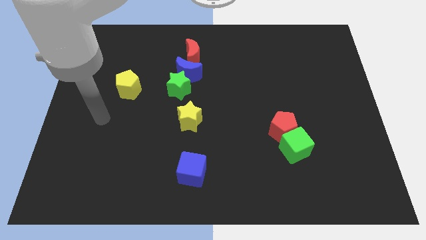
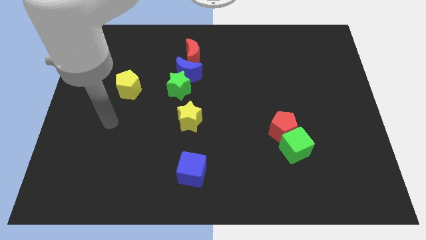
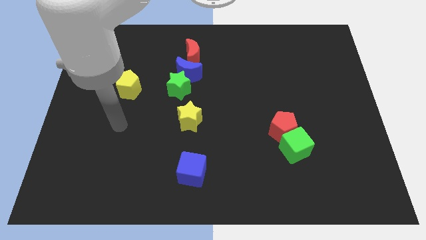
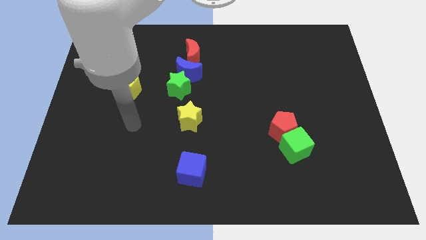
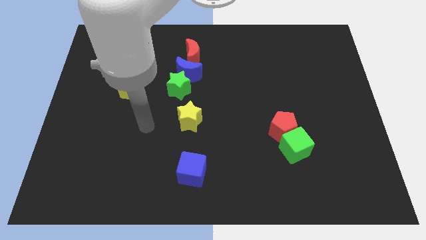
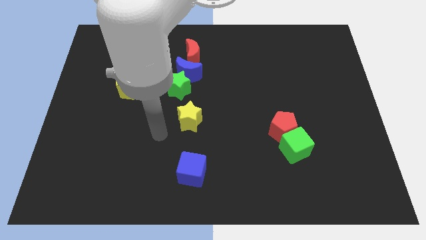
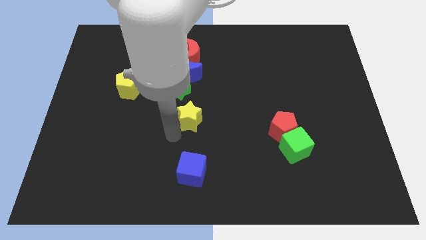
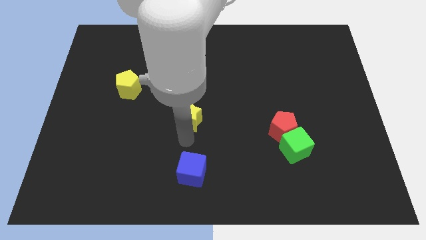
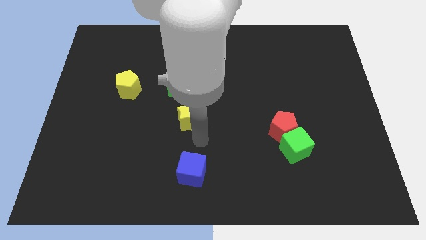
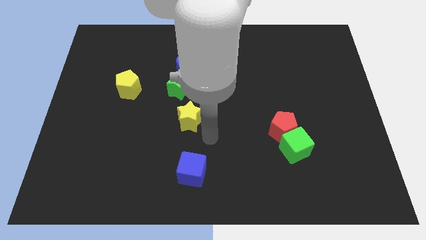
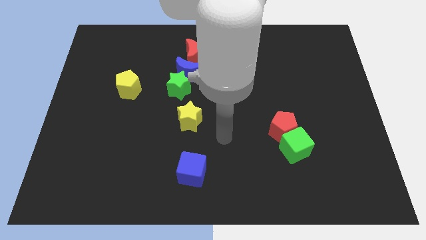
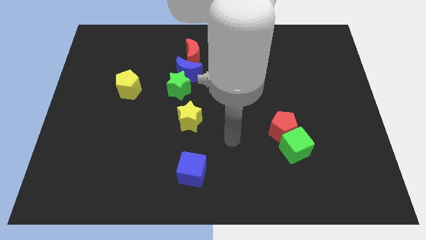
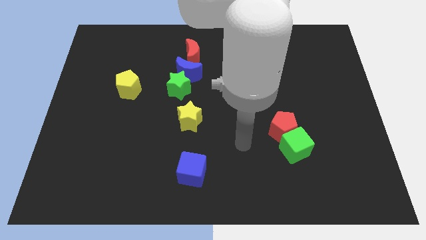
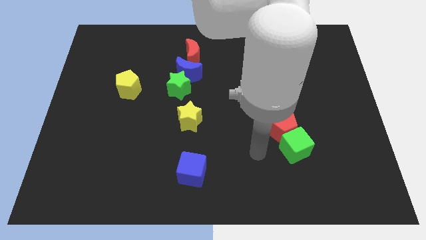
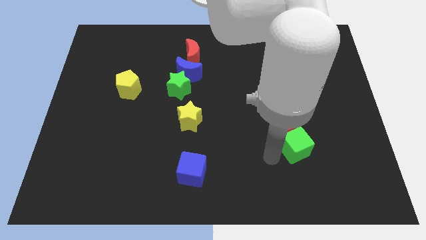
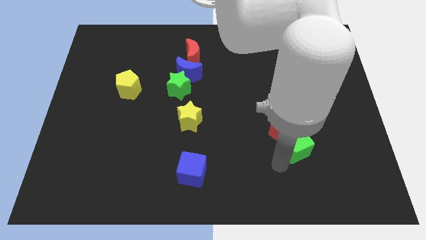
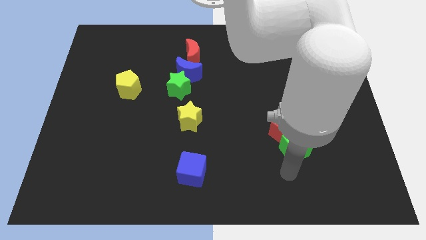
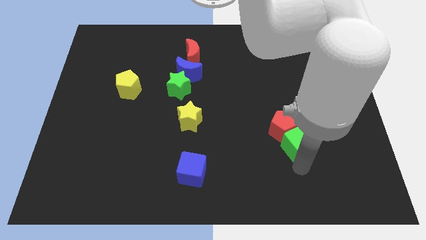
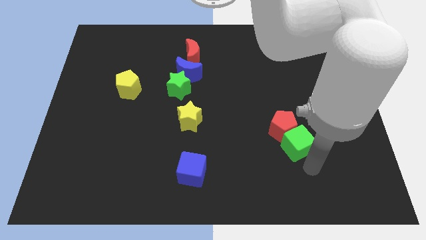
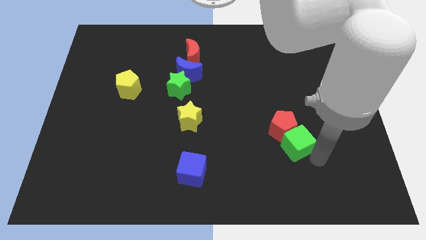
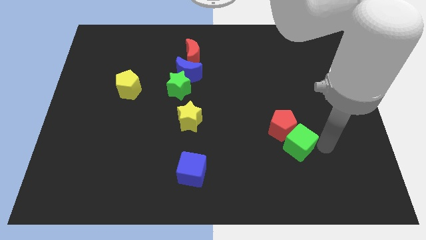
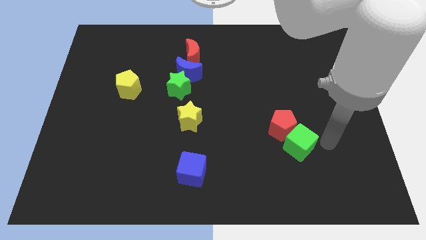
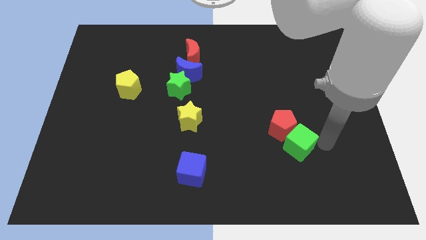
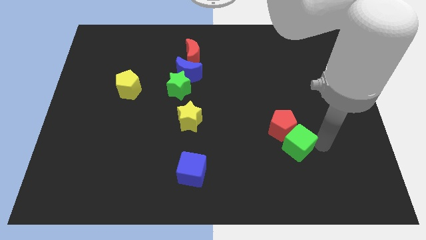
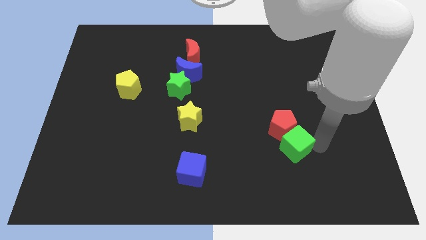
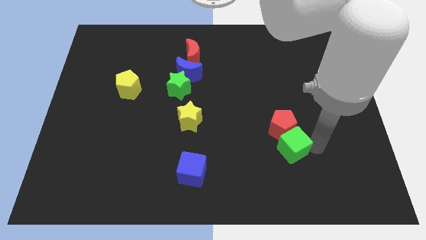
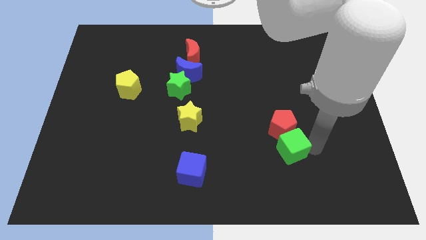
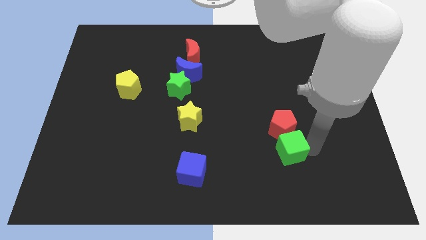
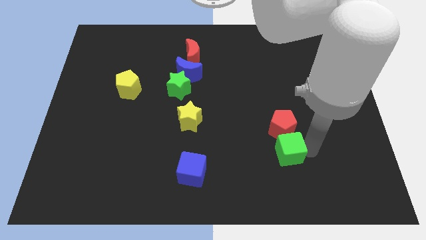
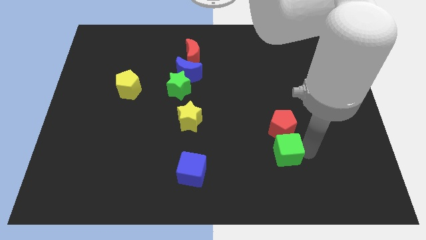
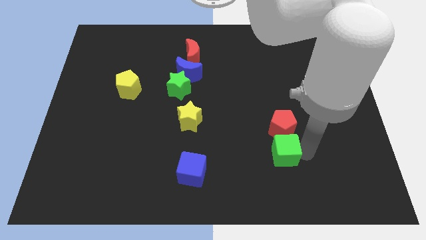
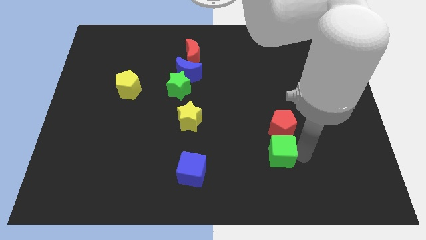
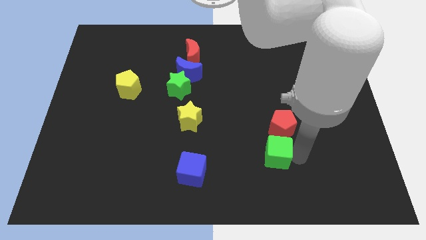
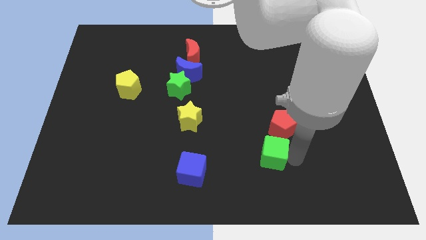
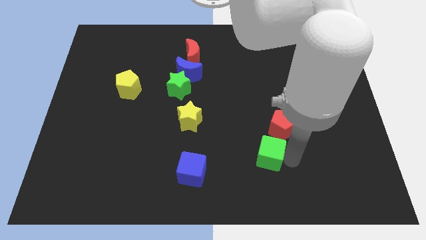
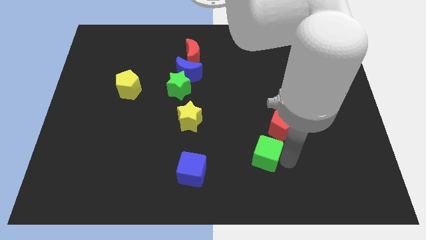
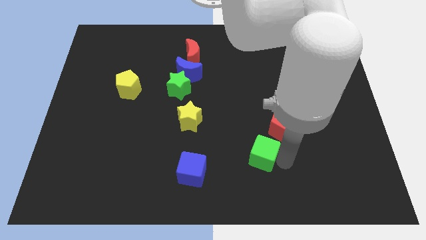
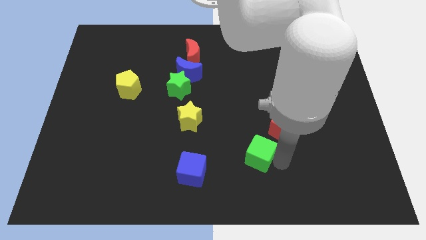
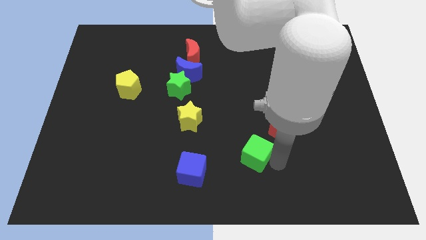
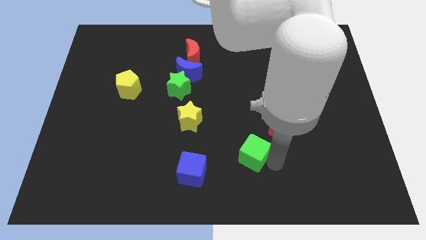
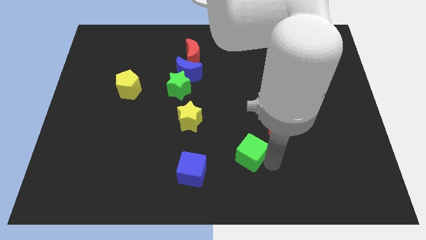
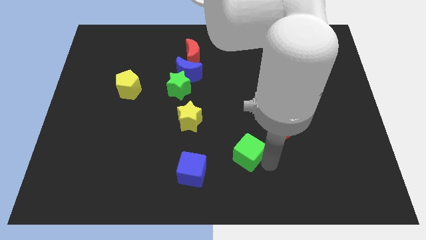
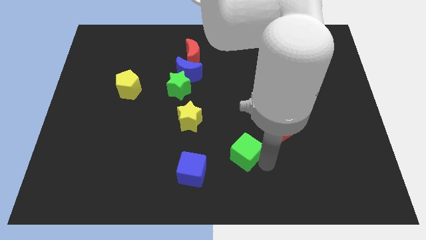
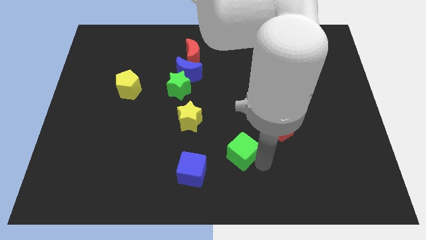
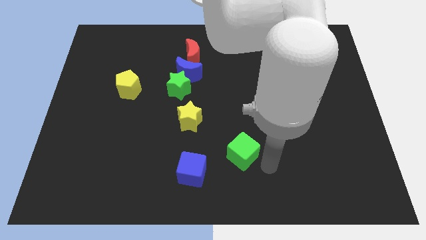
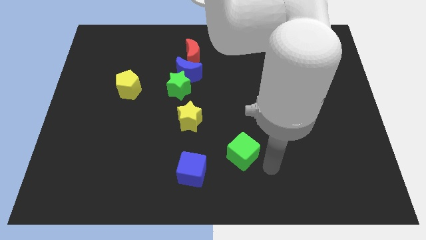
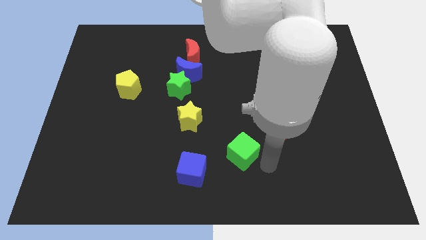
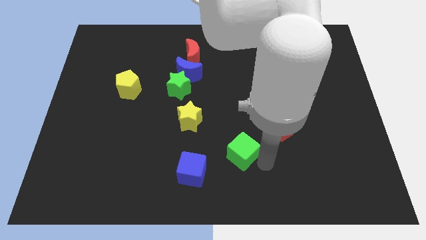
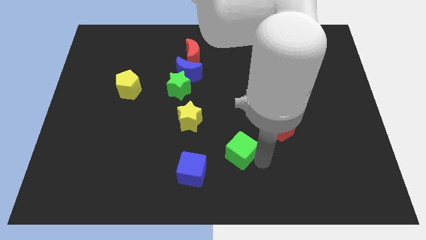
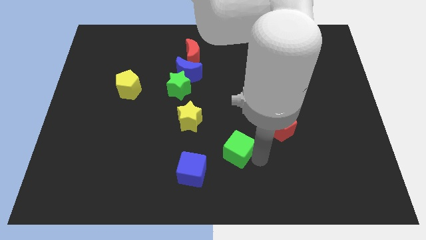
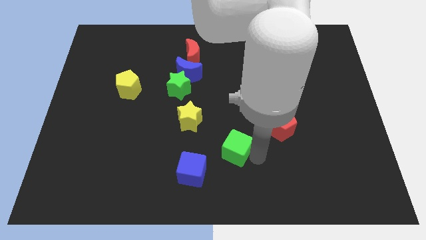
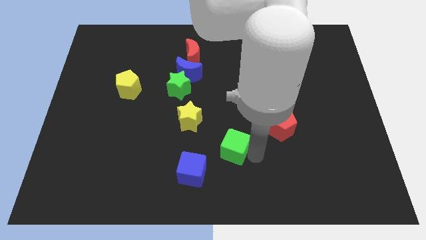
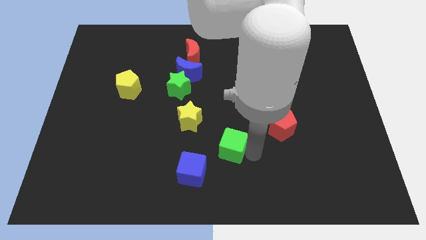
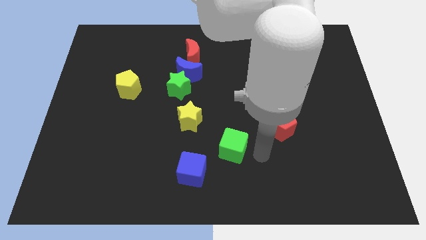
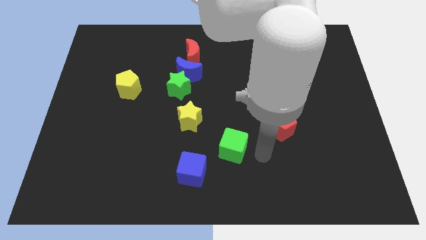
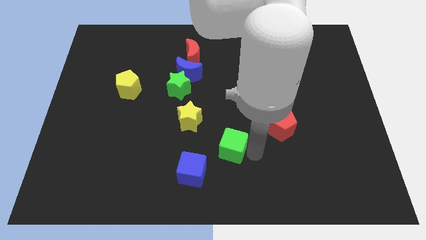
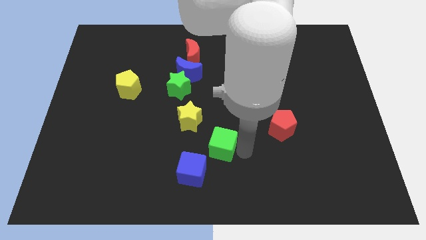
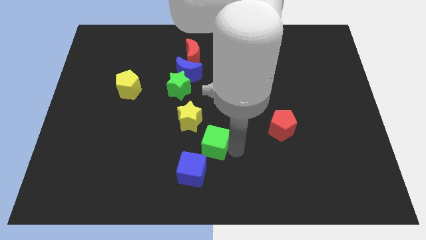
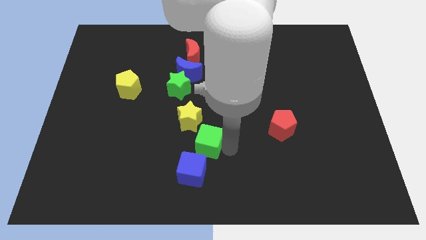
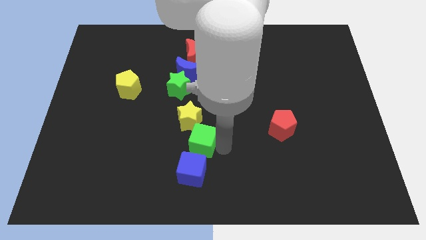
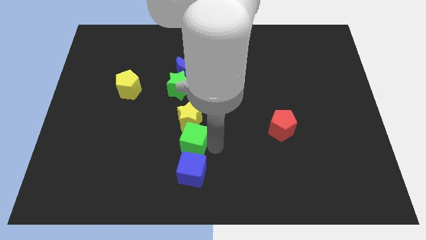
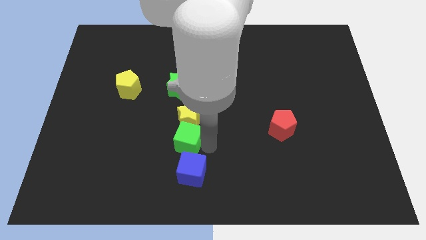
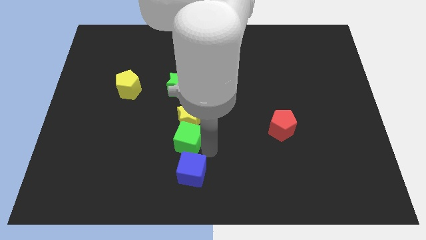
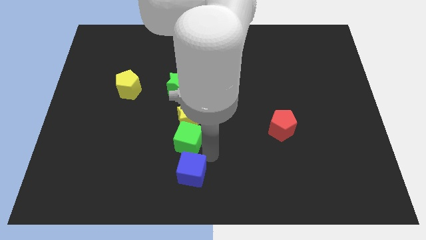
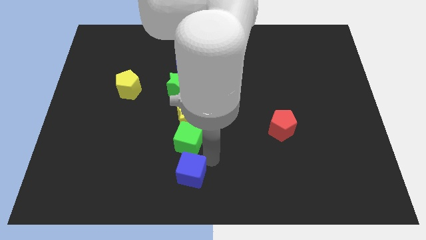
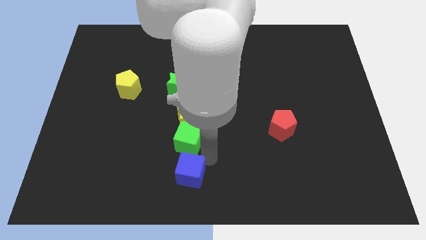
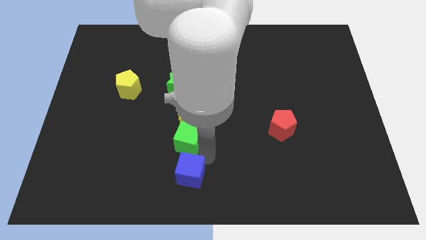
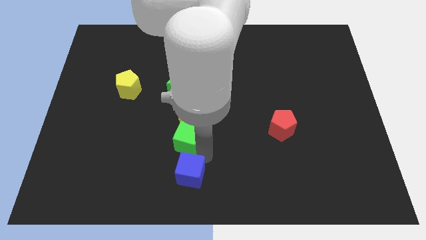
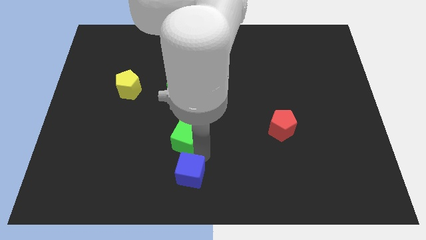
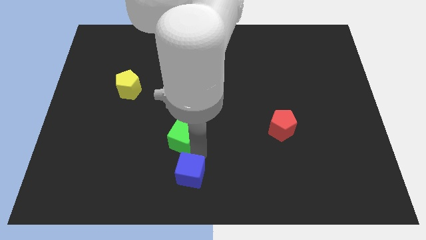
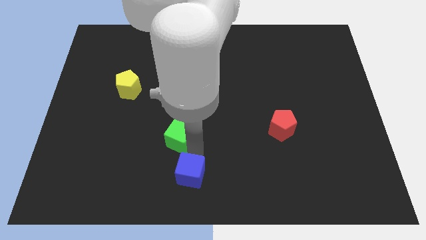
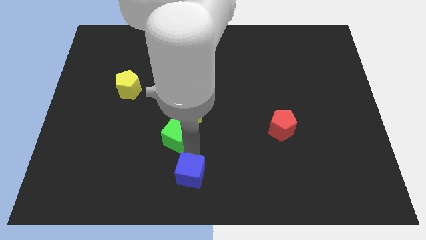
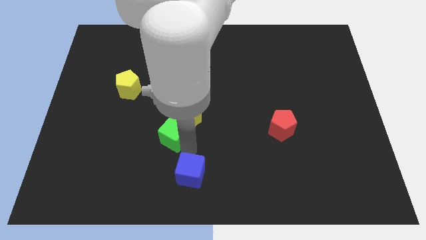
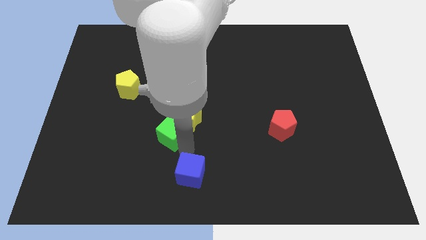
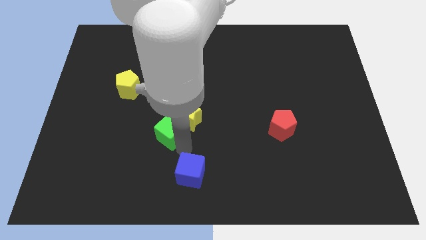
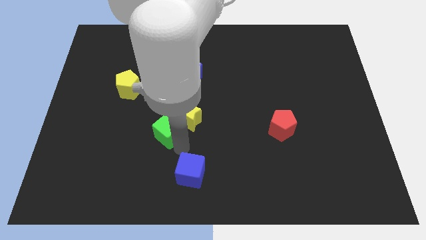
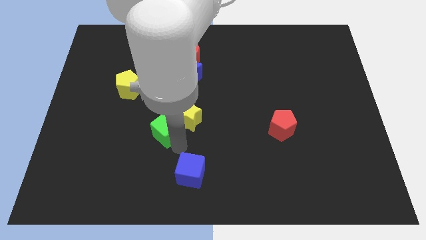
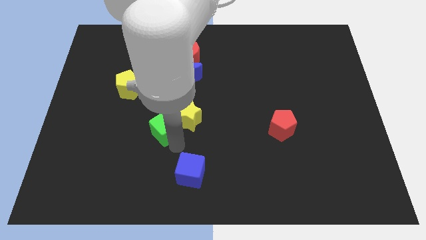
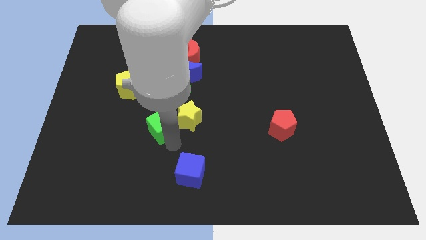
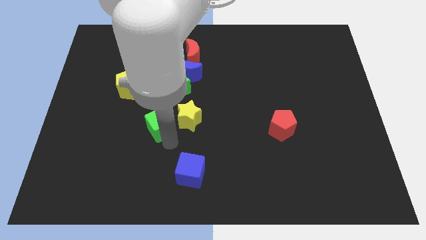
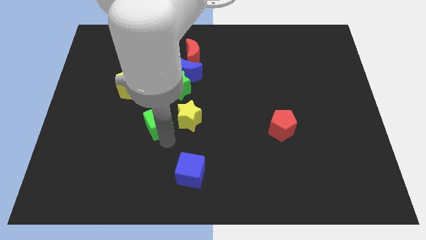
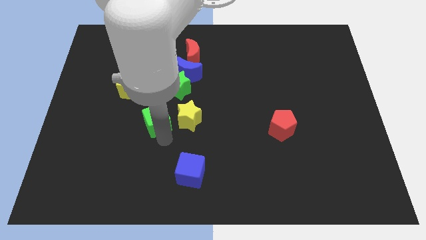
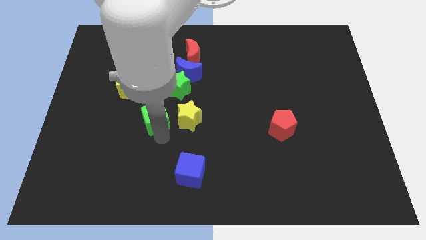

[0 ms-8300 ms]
slide the green cube to the bottom left side of the green star
